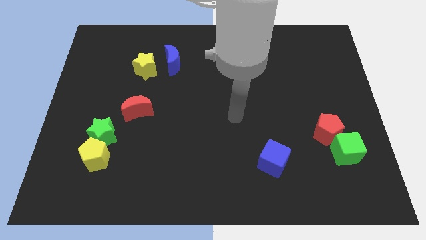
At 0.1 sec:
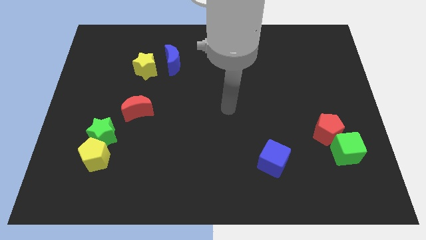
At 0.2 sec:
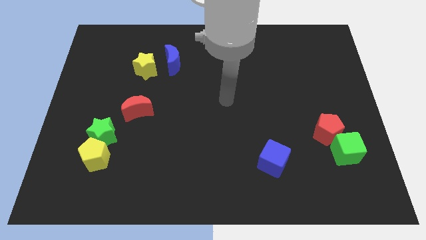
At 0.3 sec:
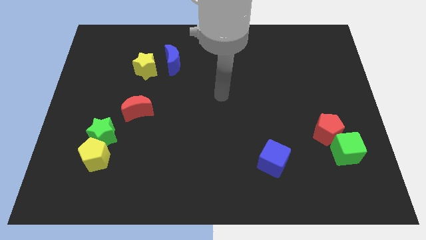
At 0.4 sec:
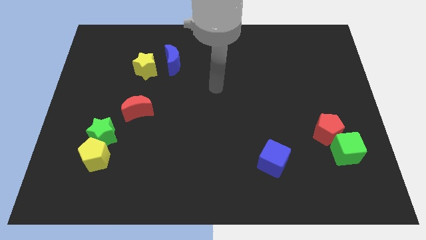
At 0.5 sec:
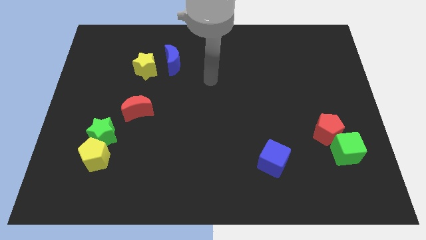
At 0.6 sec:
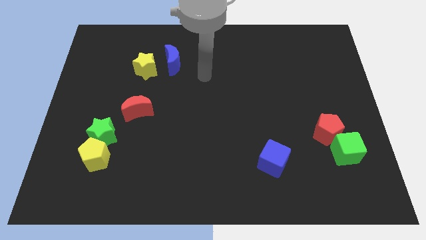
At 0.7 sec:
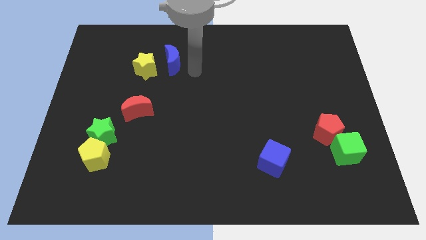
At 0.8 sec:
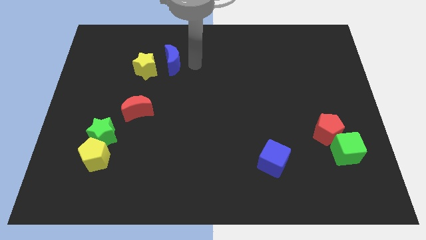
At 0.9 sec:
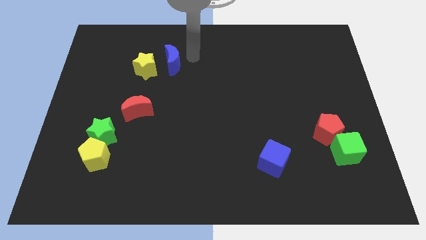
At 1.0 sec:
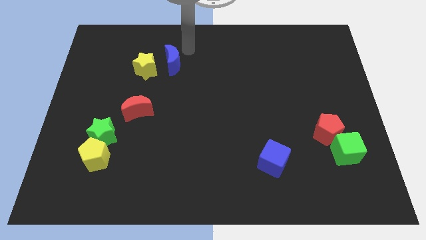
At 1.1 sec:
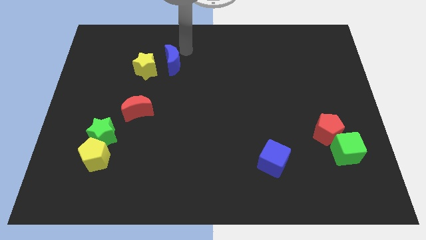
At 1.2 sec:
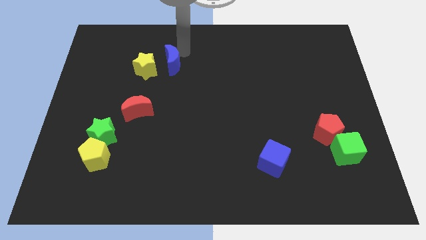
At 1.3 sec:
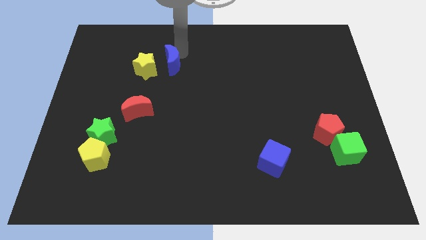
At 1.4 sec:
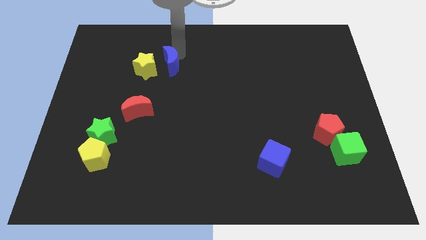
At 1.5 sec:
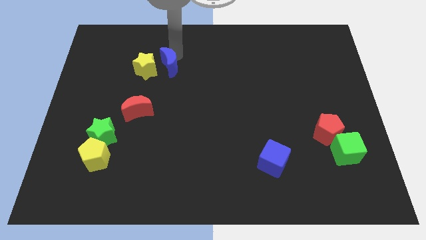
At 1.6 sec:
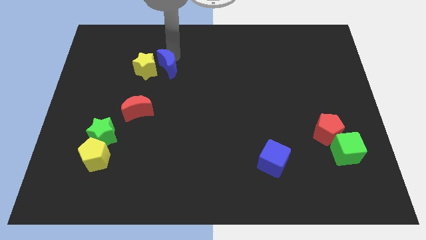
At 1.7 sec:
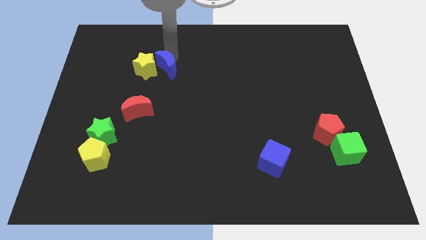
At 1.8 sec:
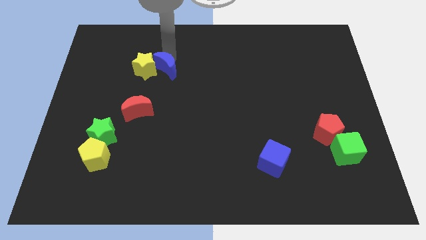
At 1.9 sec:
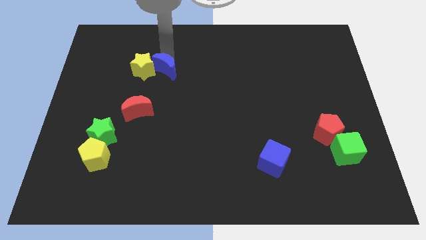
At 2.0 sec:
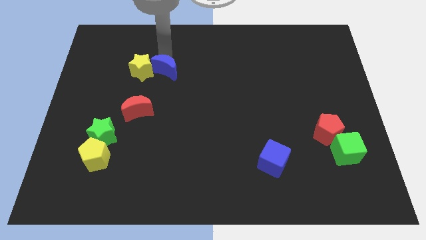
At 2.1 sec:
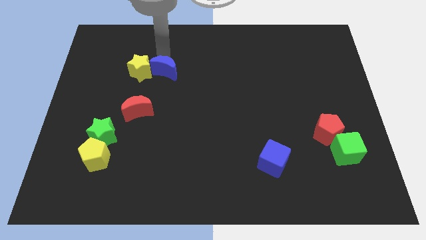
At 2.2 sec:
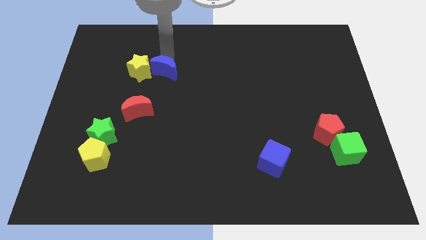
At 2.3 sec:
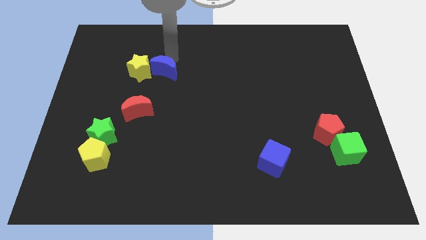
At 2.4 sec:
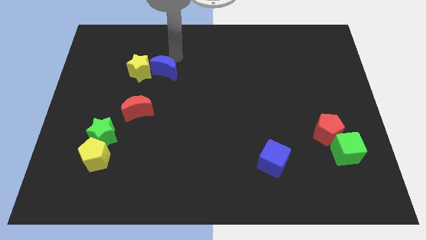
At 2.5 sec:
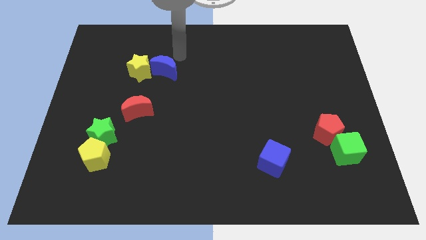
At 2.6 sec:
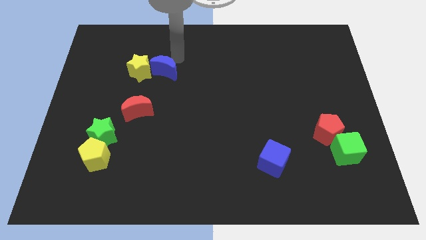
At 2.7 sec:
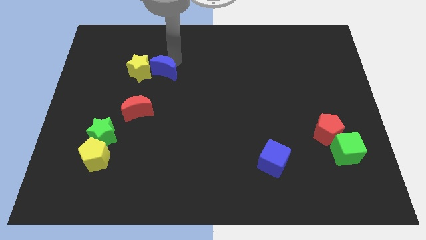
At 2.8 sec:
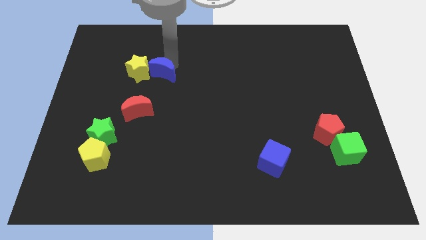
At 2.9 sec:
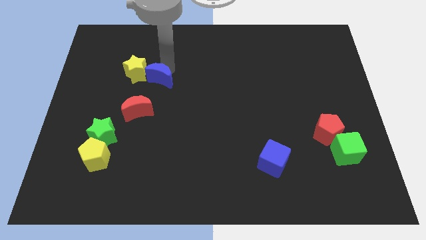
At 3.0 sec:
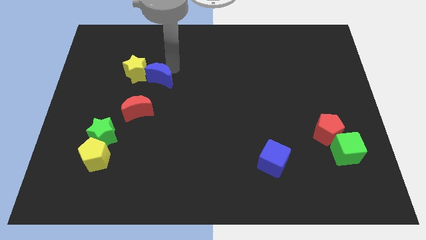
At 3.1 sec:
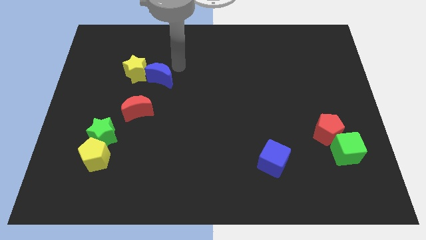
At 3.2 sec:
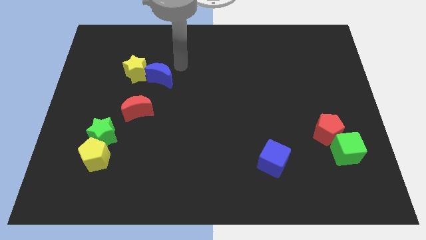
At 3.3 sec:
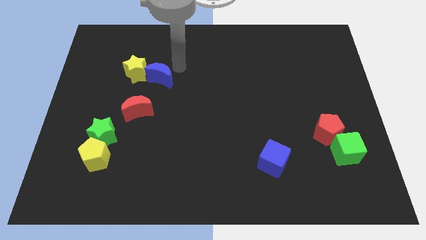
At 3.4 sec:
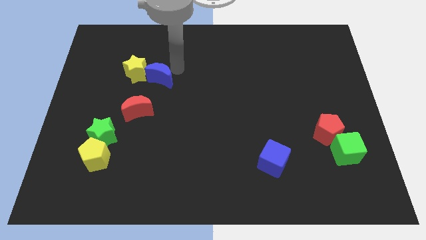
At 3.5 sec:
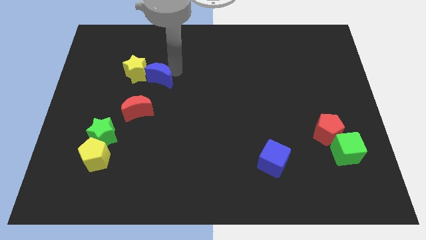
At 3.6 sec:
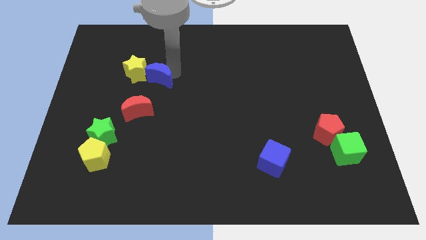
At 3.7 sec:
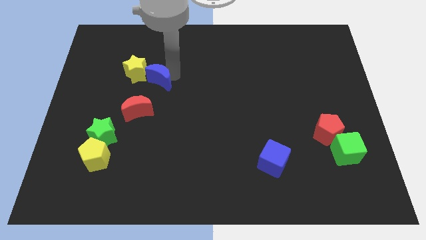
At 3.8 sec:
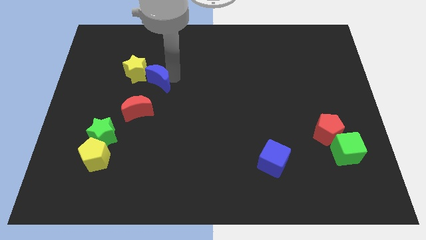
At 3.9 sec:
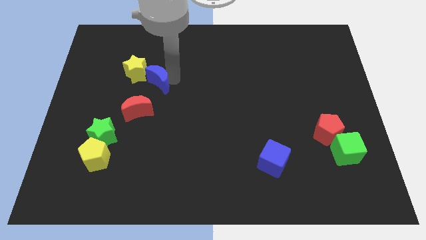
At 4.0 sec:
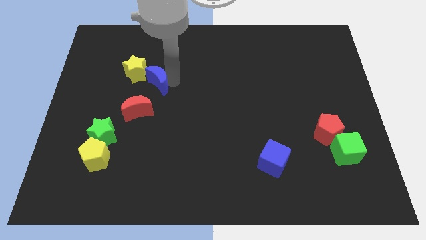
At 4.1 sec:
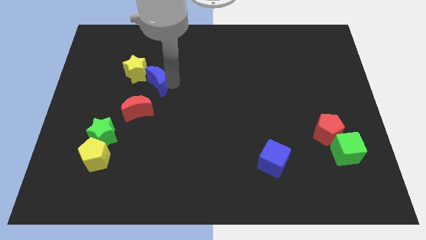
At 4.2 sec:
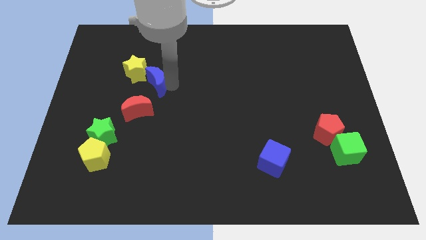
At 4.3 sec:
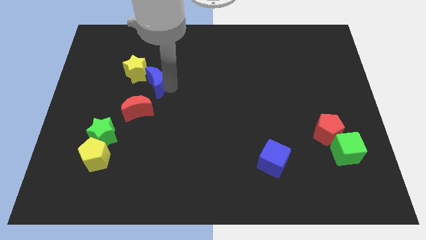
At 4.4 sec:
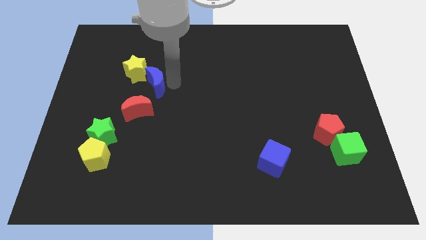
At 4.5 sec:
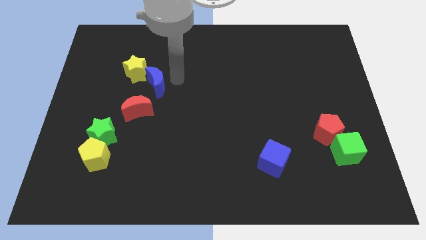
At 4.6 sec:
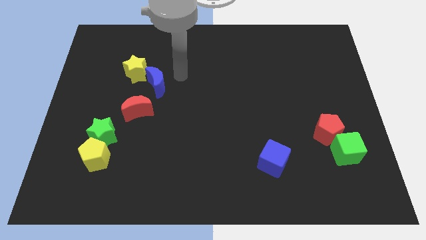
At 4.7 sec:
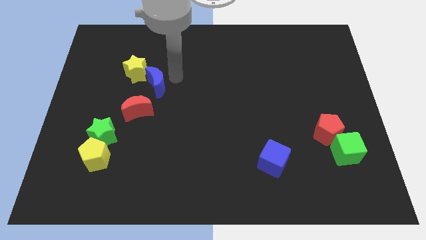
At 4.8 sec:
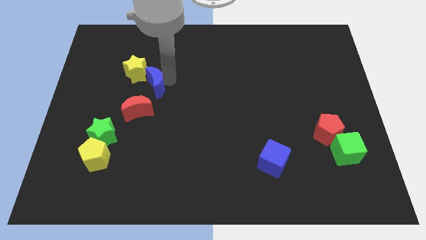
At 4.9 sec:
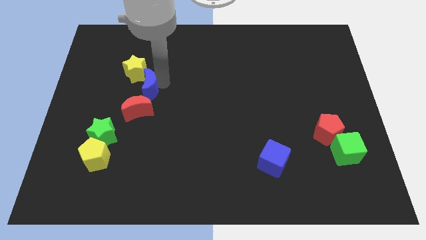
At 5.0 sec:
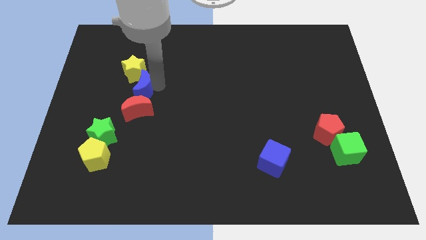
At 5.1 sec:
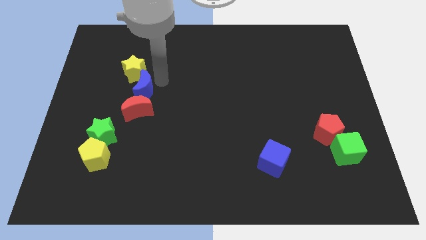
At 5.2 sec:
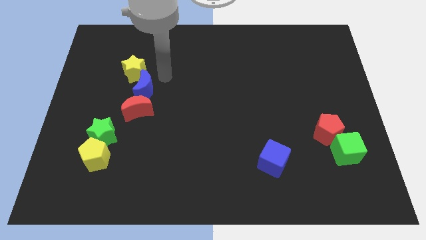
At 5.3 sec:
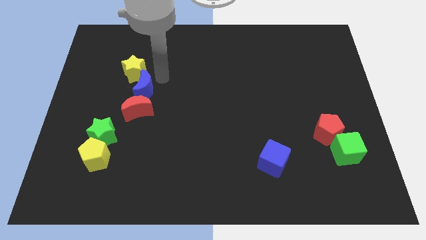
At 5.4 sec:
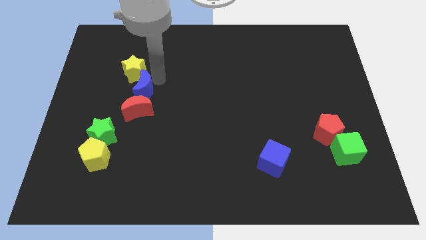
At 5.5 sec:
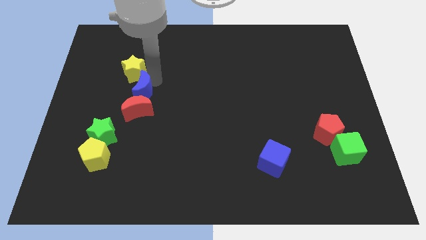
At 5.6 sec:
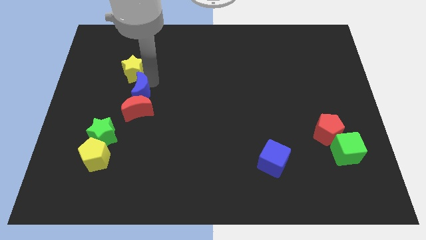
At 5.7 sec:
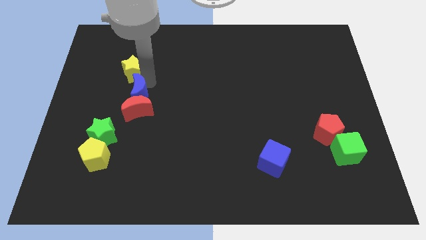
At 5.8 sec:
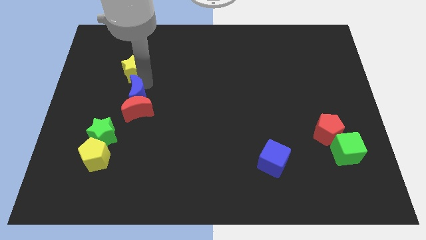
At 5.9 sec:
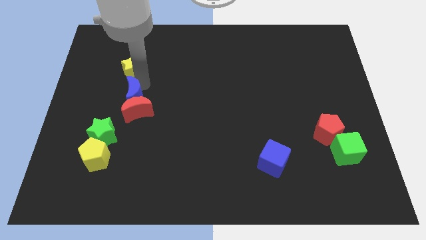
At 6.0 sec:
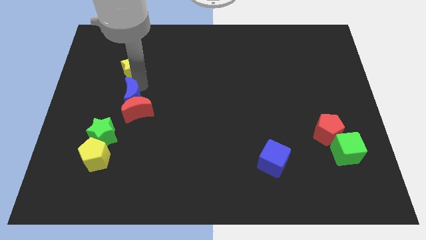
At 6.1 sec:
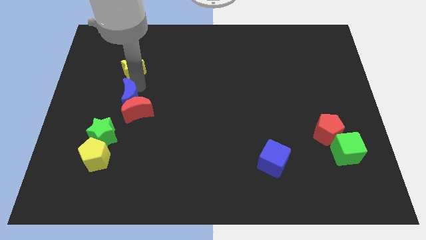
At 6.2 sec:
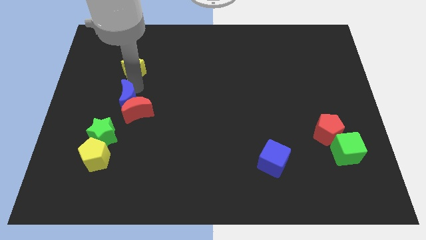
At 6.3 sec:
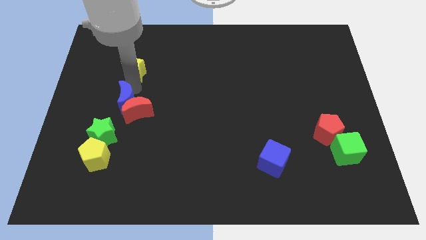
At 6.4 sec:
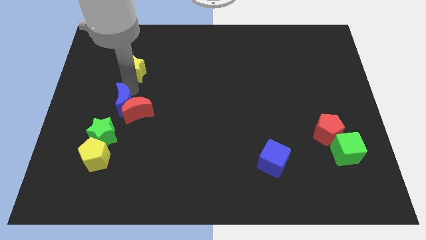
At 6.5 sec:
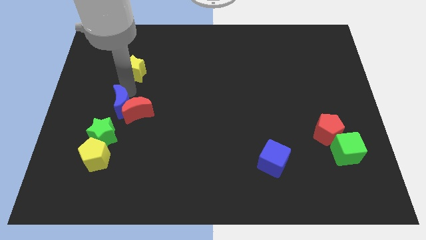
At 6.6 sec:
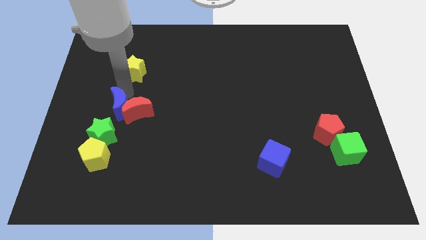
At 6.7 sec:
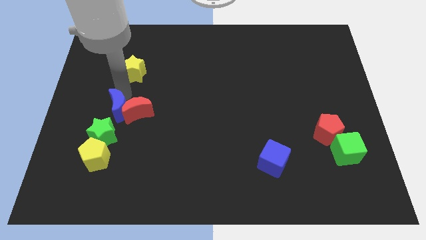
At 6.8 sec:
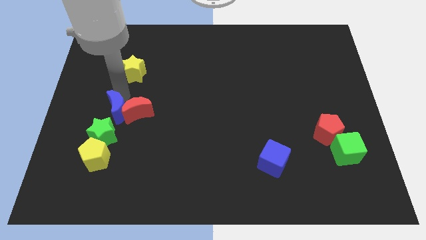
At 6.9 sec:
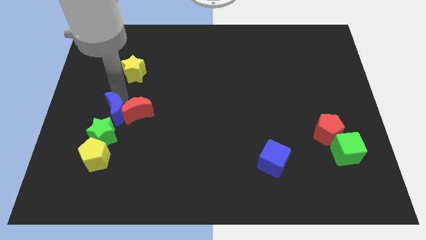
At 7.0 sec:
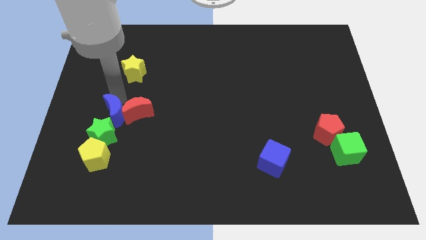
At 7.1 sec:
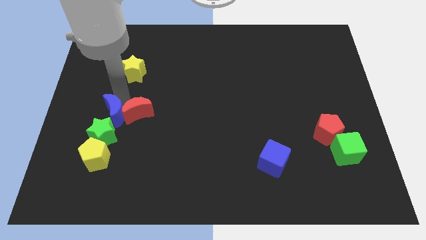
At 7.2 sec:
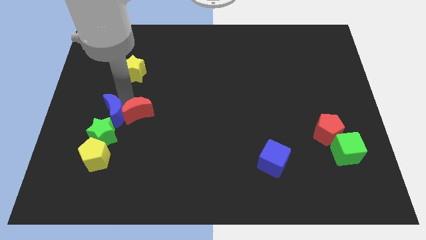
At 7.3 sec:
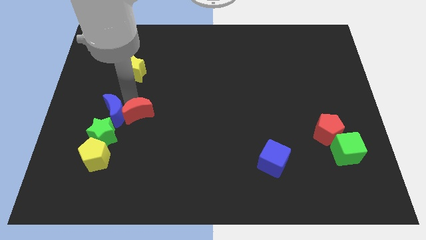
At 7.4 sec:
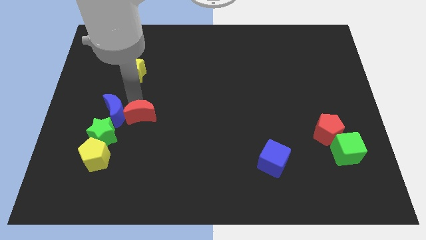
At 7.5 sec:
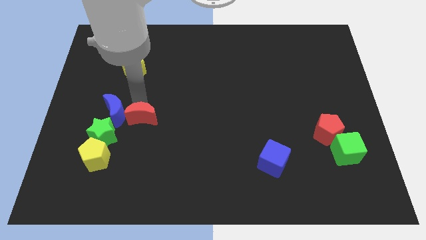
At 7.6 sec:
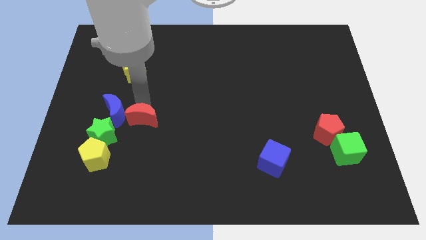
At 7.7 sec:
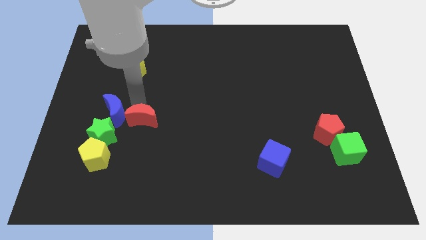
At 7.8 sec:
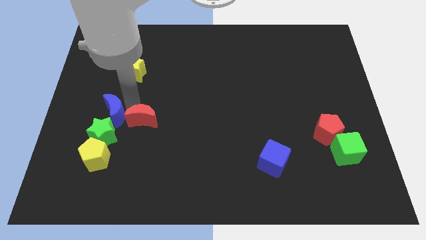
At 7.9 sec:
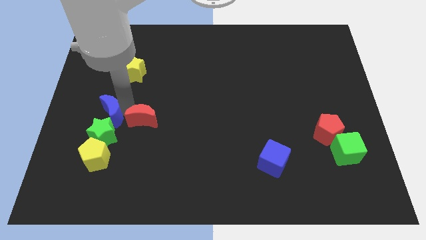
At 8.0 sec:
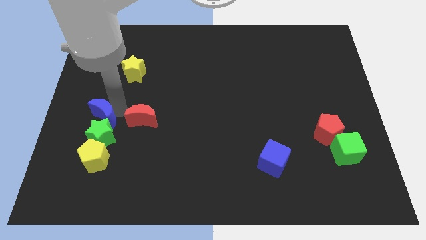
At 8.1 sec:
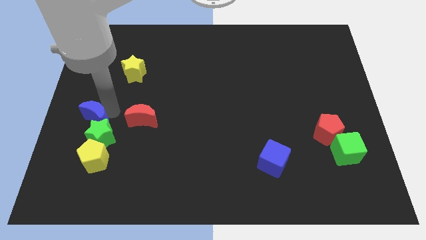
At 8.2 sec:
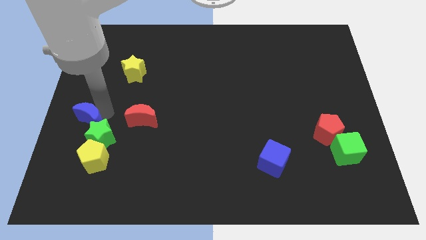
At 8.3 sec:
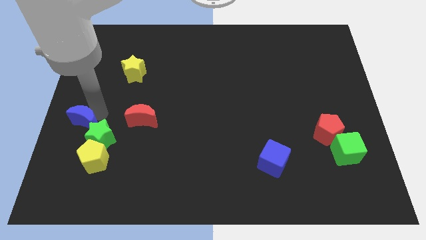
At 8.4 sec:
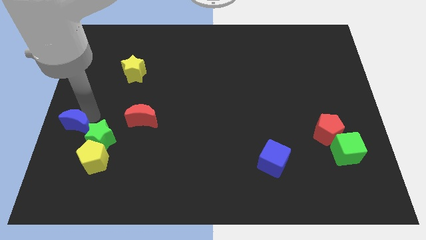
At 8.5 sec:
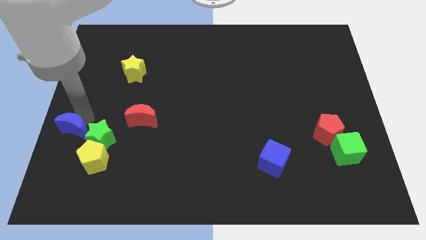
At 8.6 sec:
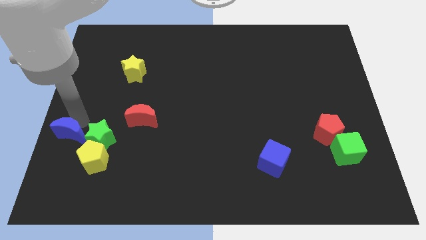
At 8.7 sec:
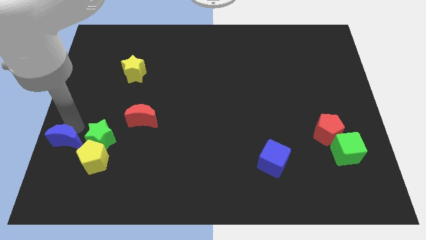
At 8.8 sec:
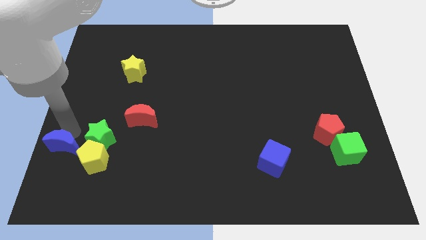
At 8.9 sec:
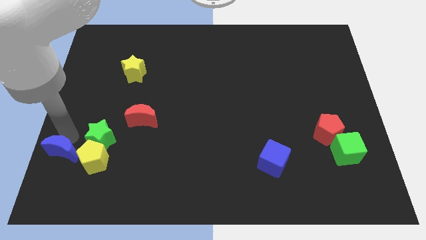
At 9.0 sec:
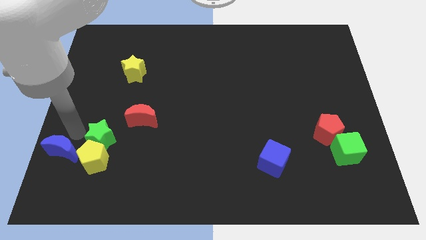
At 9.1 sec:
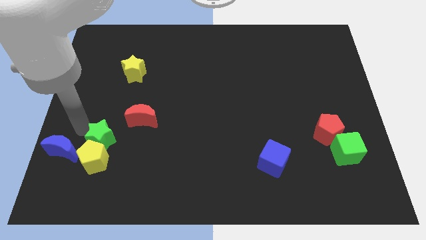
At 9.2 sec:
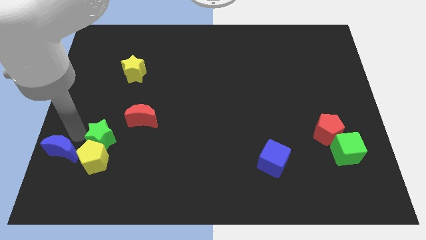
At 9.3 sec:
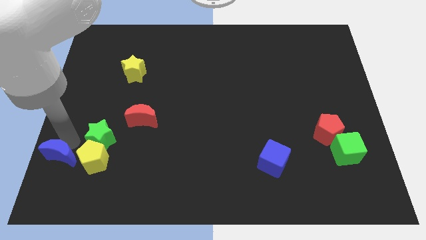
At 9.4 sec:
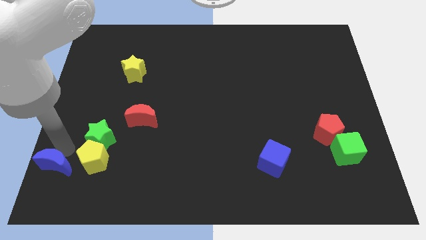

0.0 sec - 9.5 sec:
slide the blue moon to the bottom left
